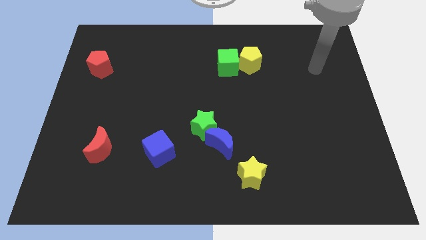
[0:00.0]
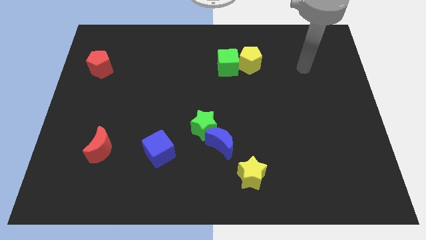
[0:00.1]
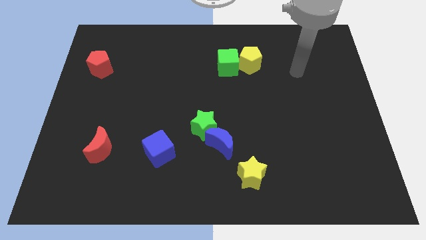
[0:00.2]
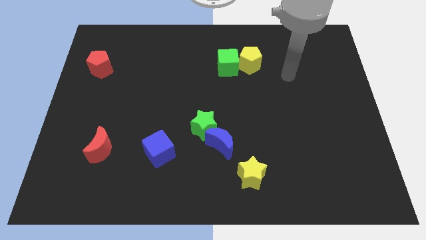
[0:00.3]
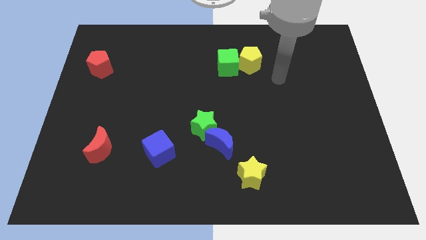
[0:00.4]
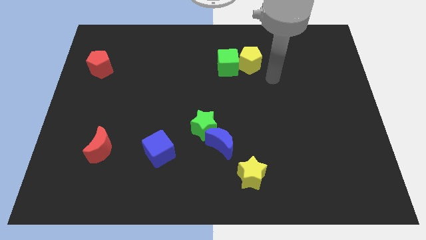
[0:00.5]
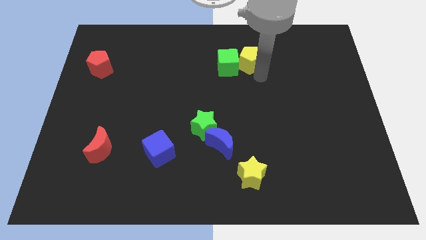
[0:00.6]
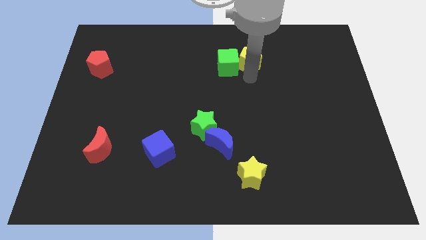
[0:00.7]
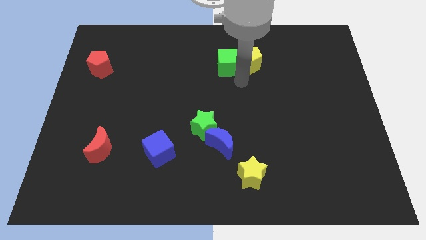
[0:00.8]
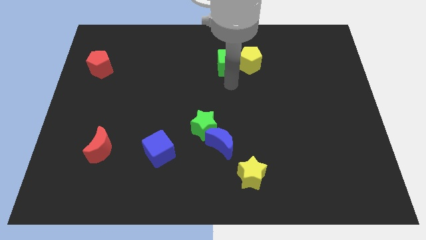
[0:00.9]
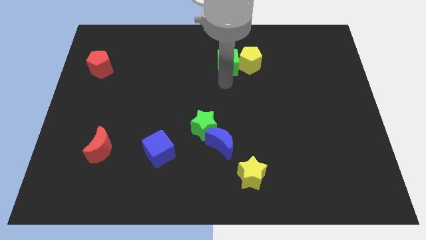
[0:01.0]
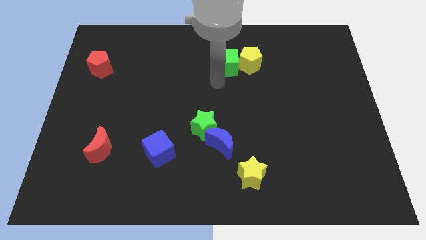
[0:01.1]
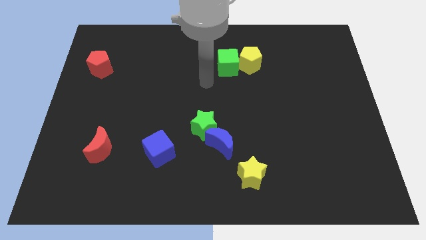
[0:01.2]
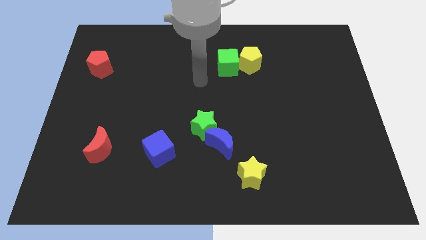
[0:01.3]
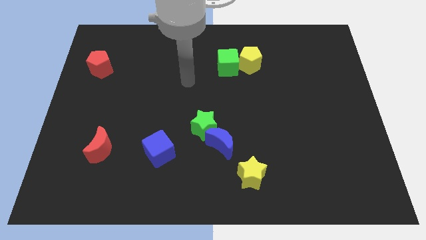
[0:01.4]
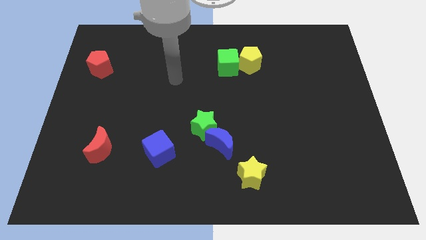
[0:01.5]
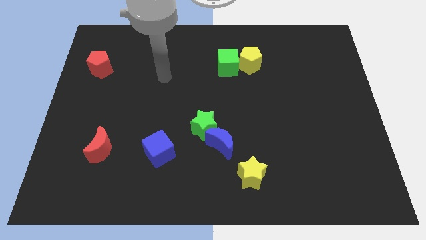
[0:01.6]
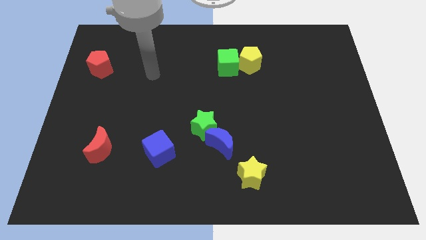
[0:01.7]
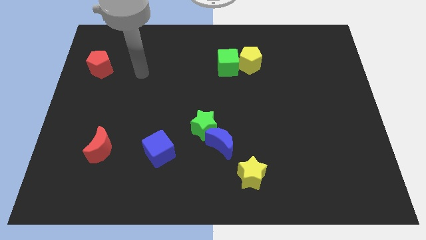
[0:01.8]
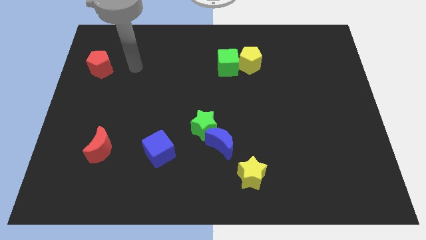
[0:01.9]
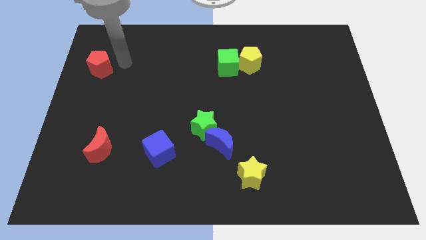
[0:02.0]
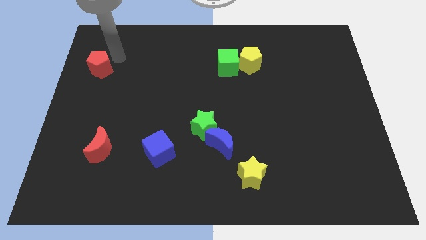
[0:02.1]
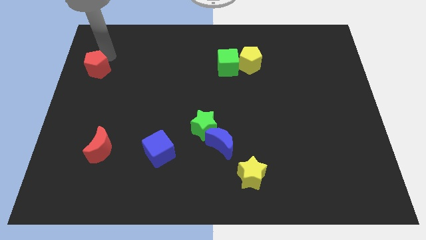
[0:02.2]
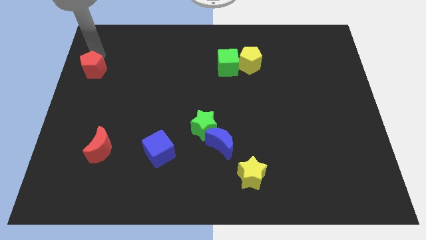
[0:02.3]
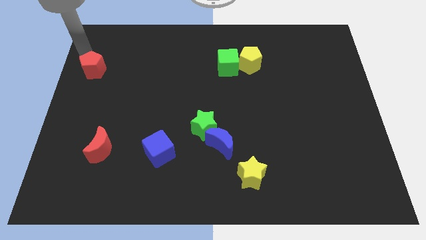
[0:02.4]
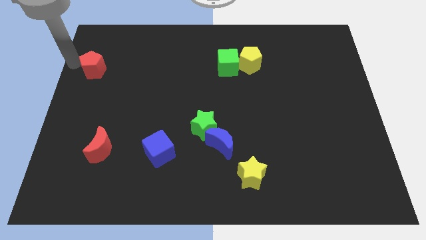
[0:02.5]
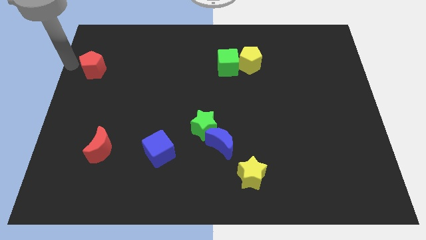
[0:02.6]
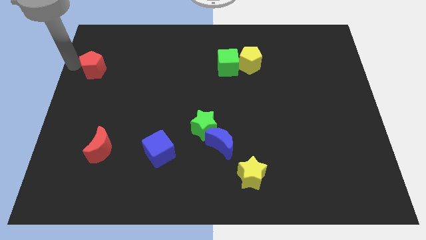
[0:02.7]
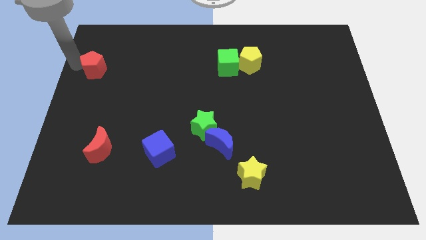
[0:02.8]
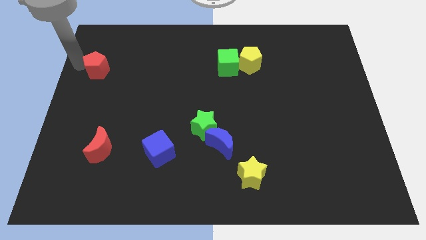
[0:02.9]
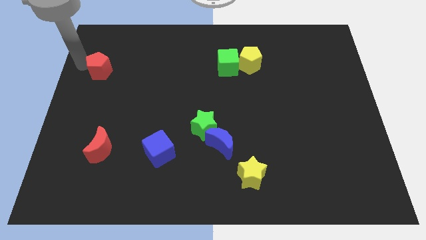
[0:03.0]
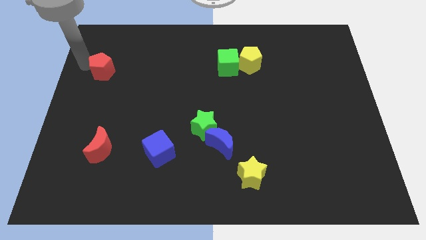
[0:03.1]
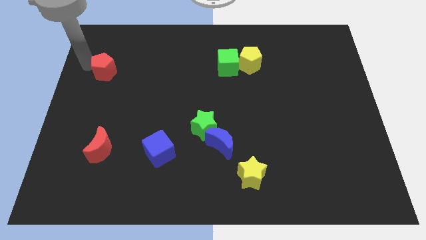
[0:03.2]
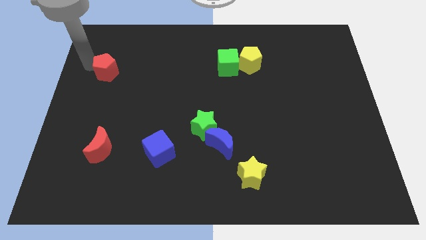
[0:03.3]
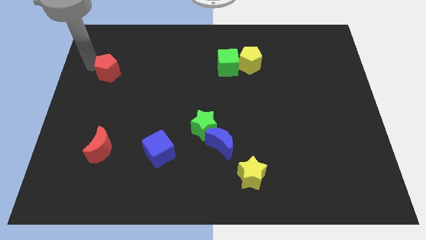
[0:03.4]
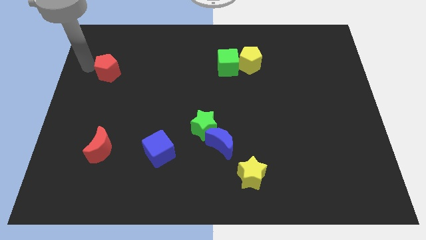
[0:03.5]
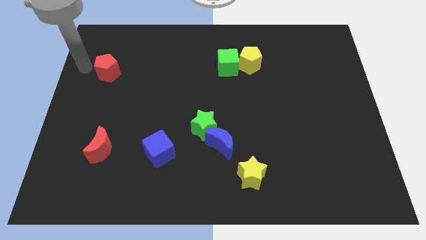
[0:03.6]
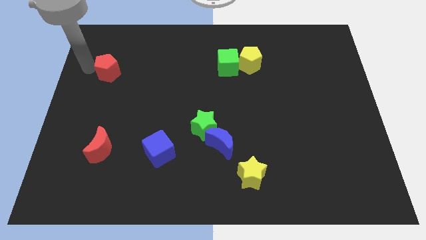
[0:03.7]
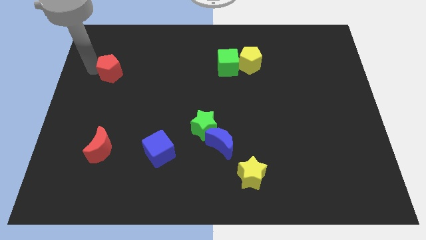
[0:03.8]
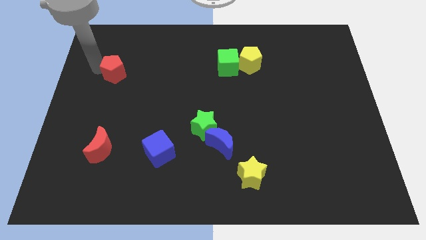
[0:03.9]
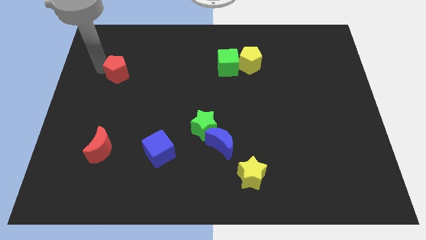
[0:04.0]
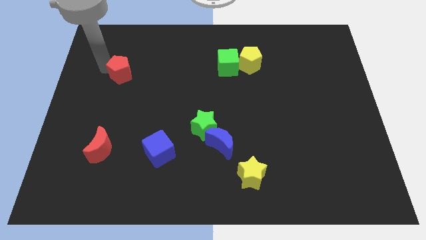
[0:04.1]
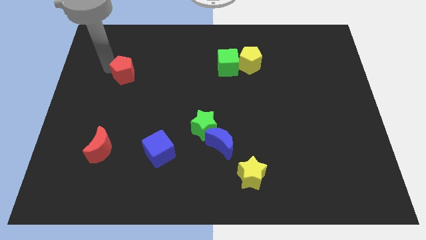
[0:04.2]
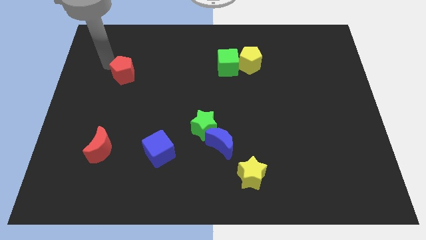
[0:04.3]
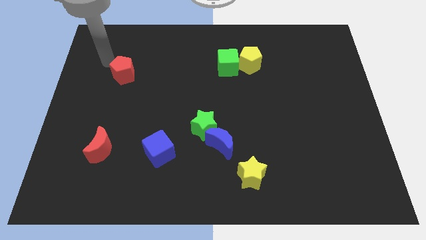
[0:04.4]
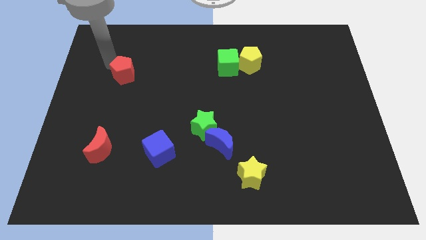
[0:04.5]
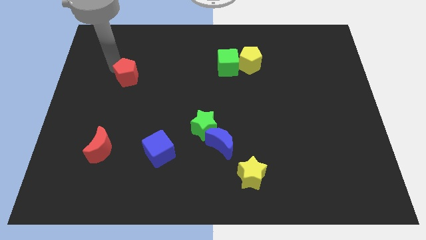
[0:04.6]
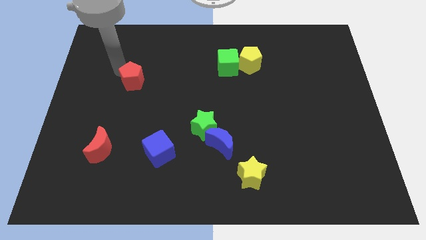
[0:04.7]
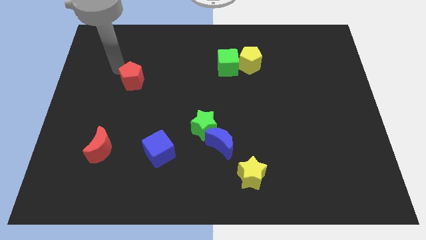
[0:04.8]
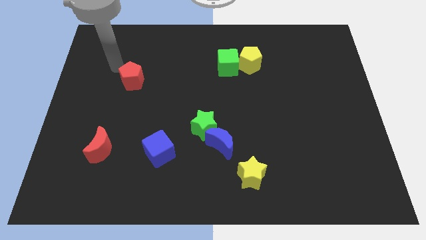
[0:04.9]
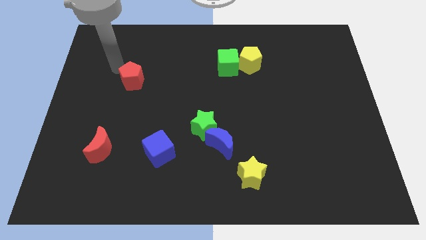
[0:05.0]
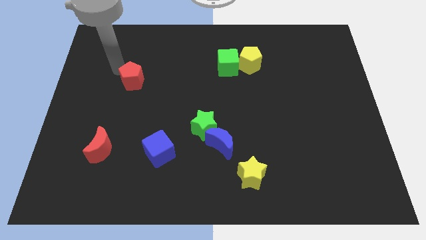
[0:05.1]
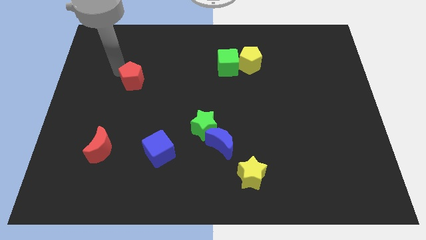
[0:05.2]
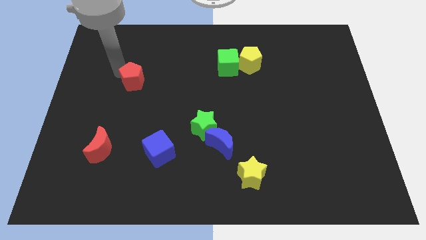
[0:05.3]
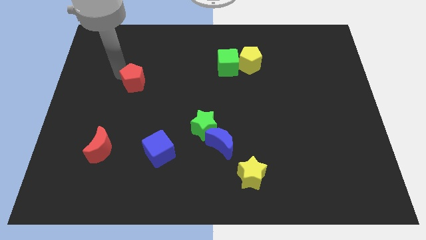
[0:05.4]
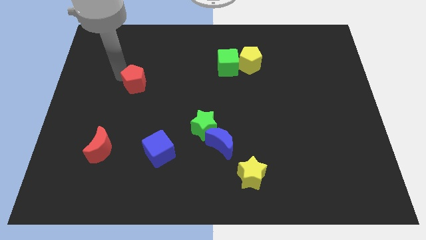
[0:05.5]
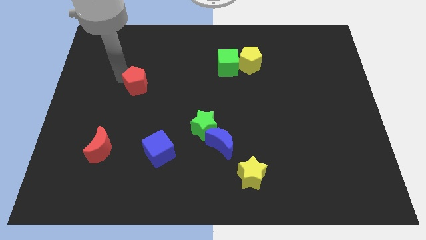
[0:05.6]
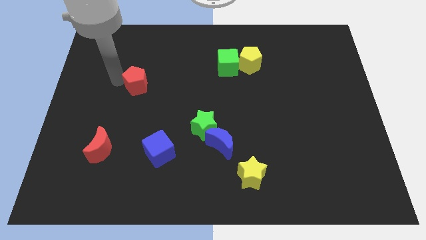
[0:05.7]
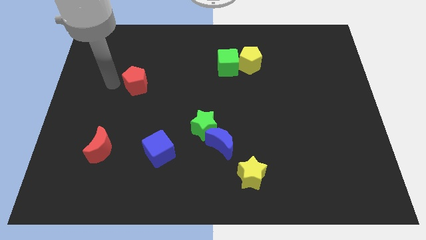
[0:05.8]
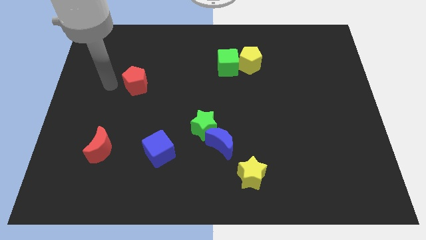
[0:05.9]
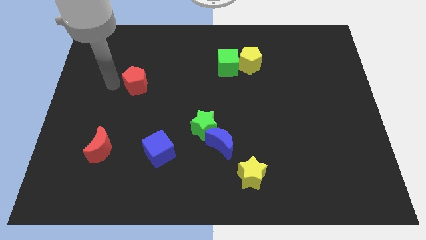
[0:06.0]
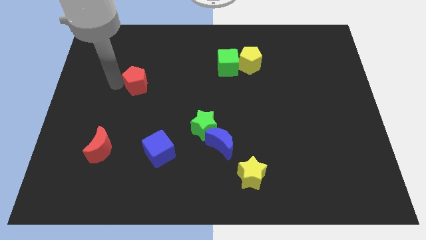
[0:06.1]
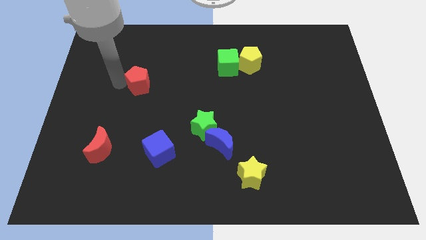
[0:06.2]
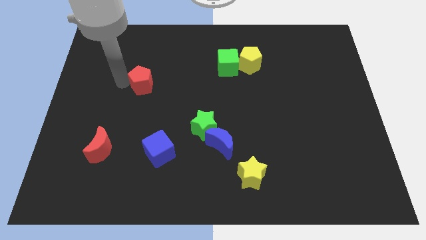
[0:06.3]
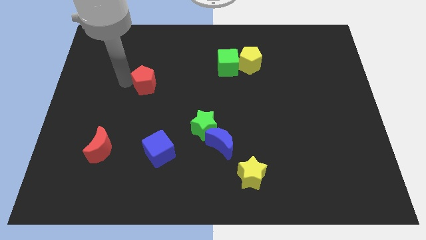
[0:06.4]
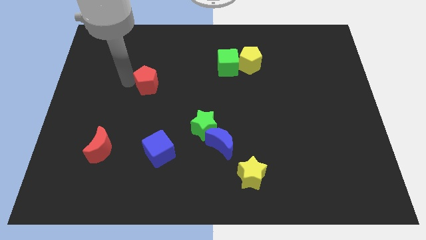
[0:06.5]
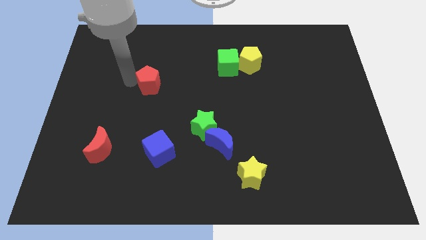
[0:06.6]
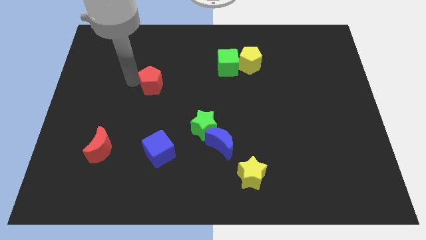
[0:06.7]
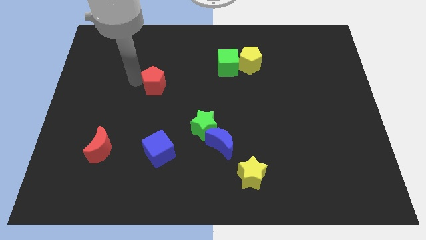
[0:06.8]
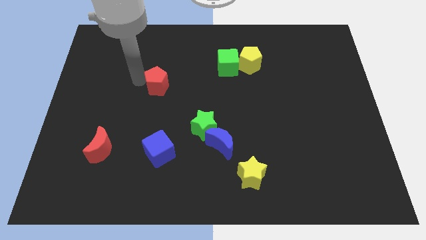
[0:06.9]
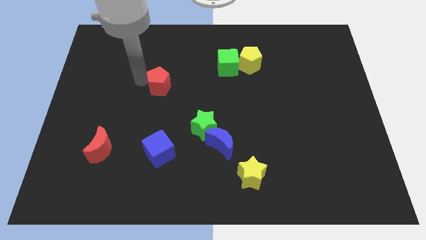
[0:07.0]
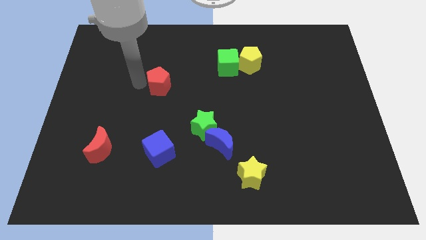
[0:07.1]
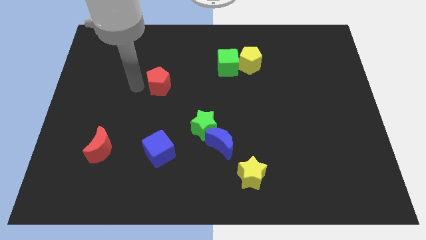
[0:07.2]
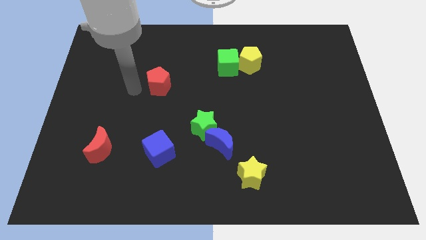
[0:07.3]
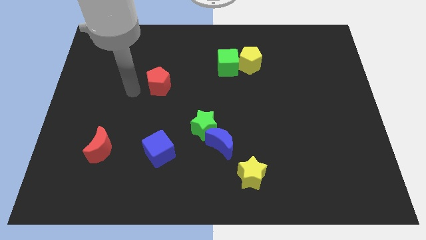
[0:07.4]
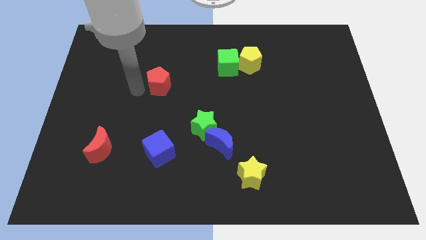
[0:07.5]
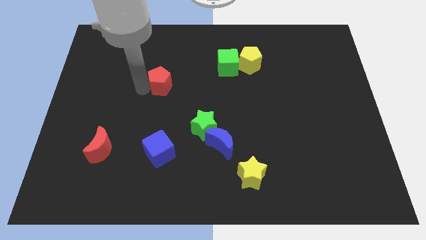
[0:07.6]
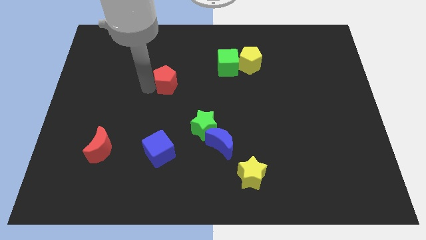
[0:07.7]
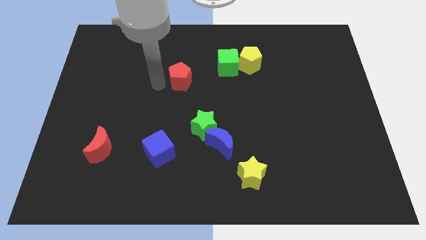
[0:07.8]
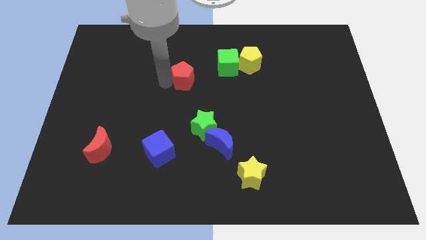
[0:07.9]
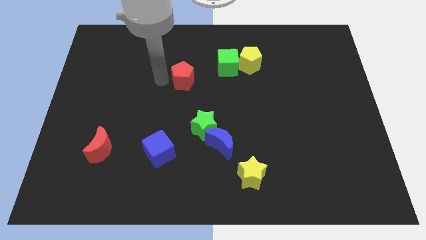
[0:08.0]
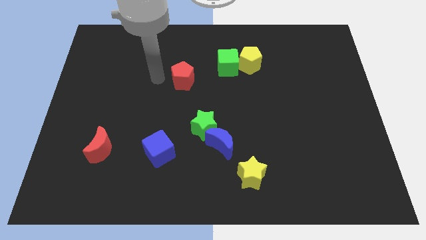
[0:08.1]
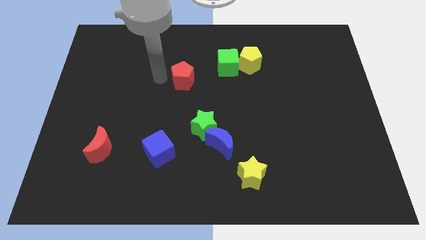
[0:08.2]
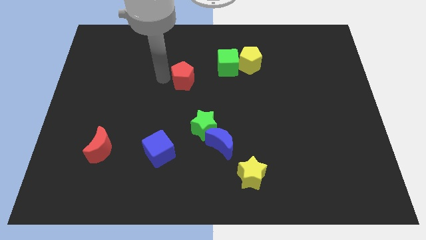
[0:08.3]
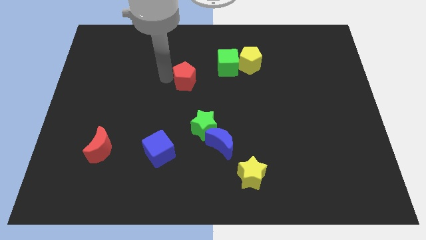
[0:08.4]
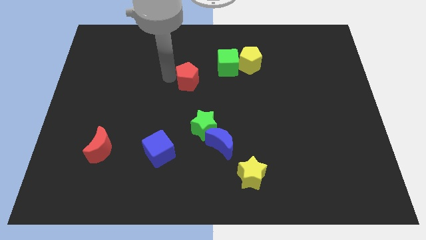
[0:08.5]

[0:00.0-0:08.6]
move the red pentagon diagonally down and to the left of the green cube
